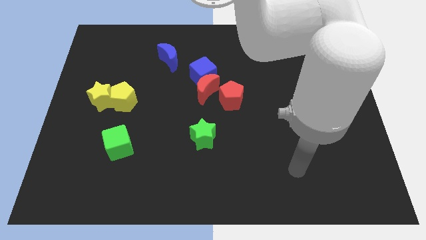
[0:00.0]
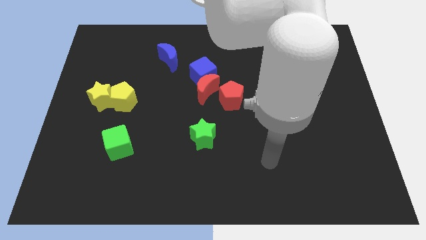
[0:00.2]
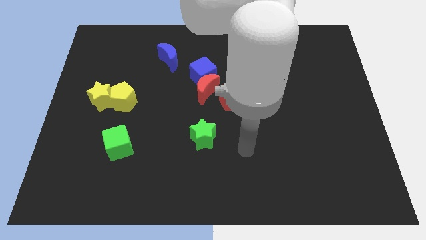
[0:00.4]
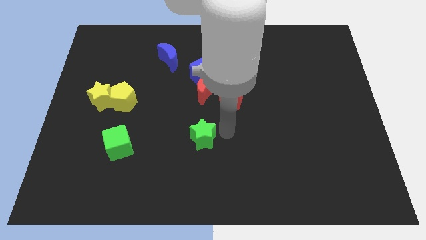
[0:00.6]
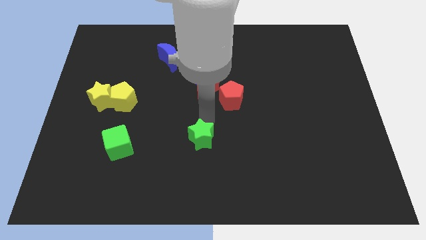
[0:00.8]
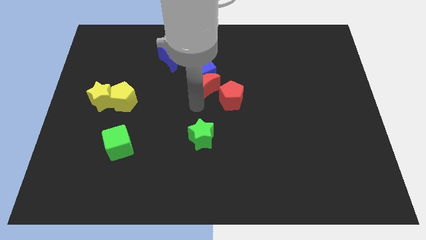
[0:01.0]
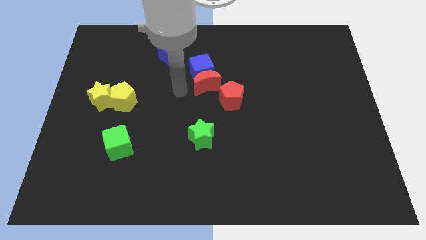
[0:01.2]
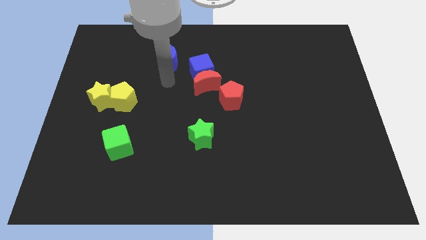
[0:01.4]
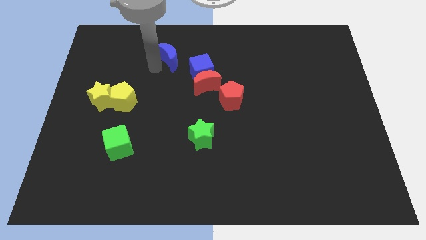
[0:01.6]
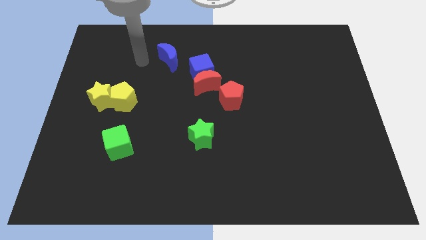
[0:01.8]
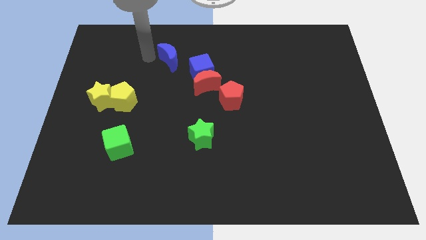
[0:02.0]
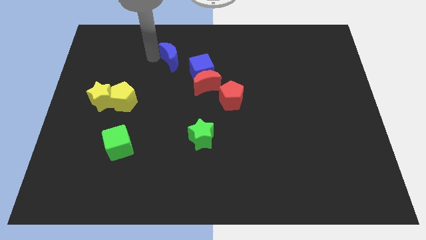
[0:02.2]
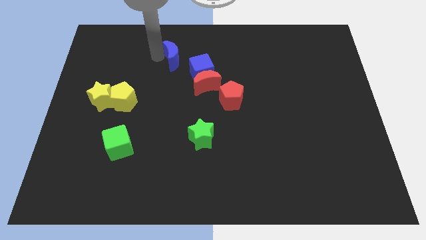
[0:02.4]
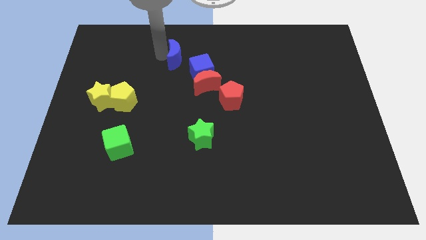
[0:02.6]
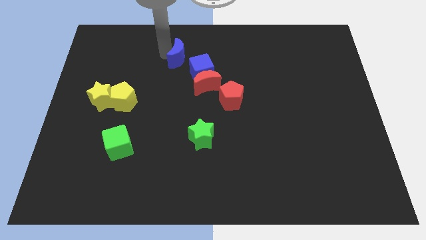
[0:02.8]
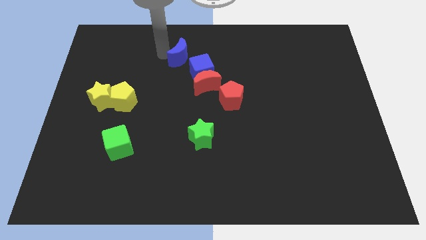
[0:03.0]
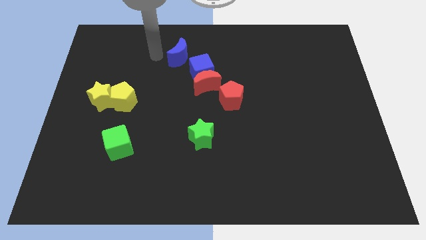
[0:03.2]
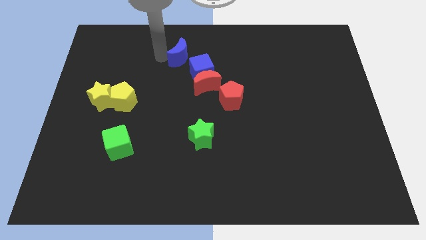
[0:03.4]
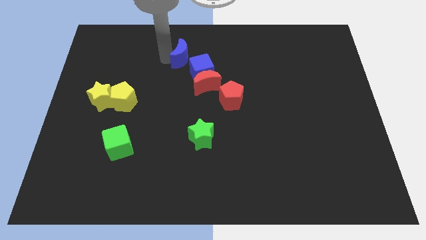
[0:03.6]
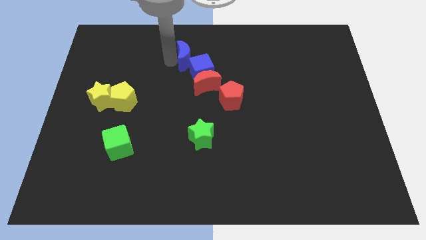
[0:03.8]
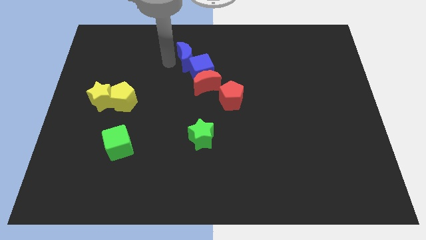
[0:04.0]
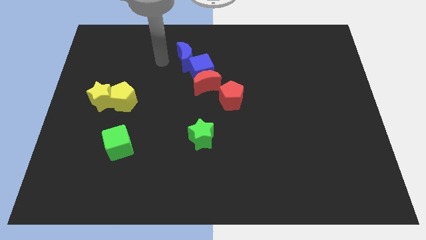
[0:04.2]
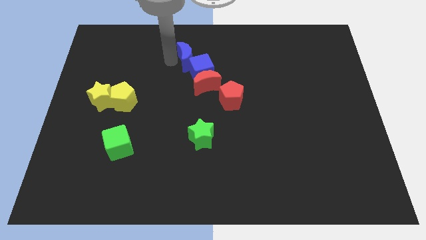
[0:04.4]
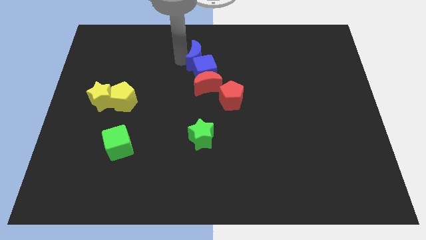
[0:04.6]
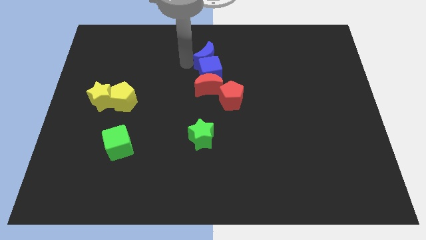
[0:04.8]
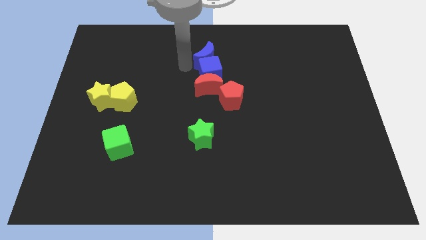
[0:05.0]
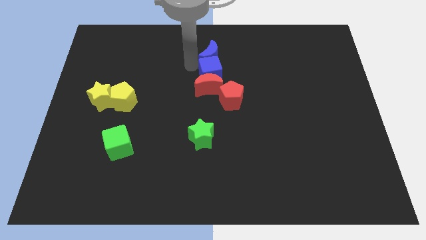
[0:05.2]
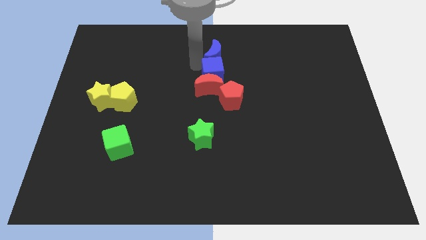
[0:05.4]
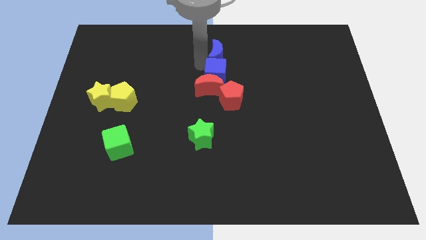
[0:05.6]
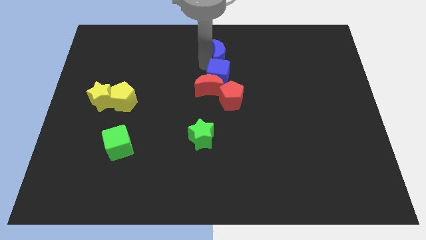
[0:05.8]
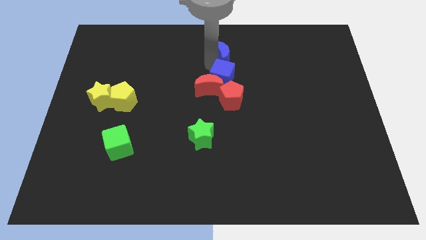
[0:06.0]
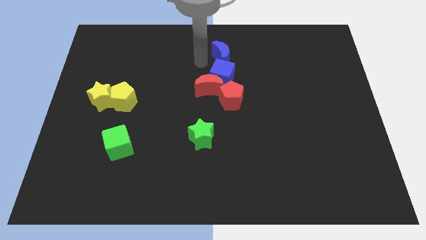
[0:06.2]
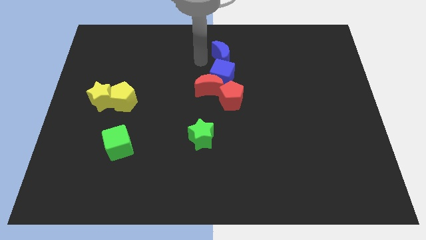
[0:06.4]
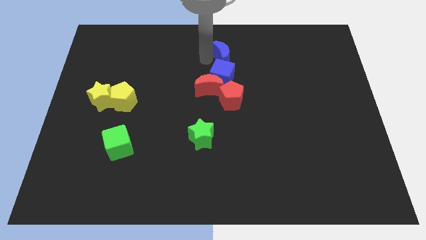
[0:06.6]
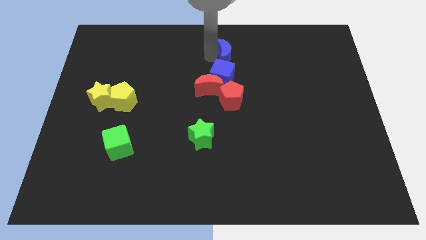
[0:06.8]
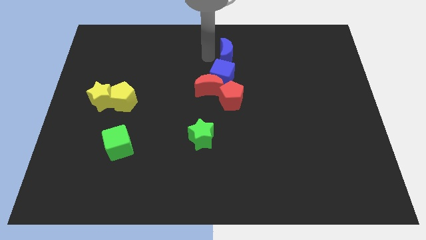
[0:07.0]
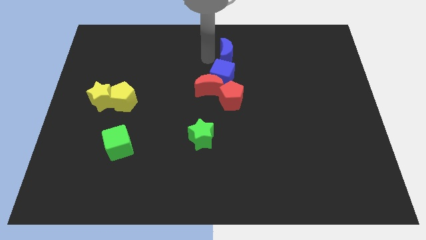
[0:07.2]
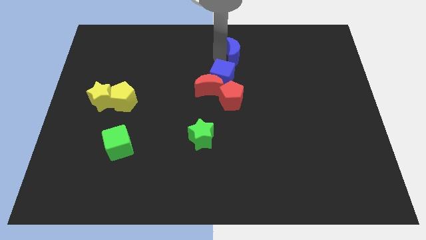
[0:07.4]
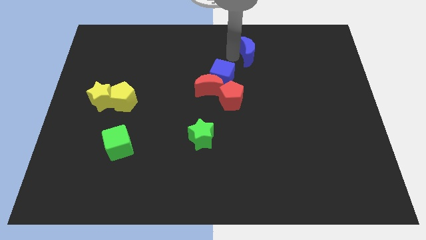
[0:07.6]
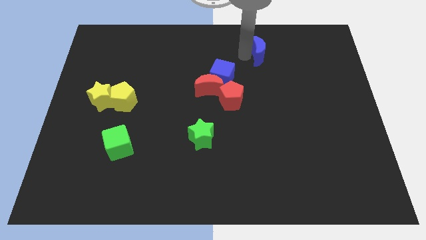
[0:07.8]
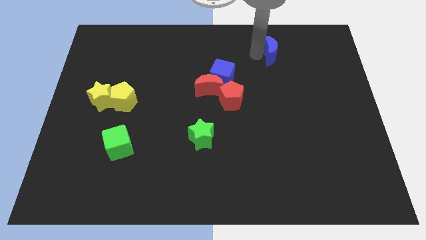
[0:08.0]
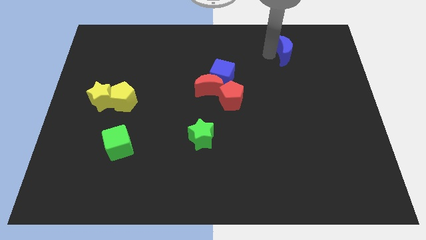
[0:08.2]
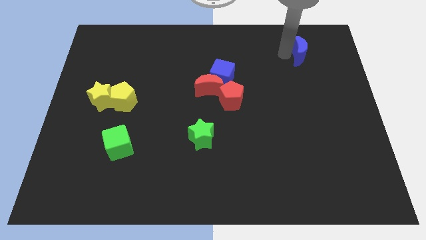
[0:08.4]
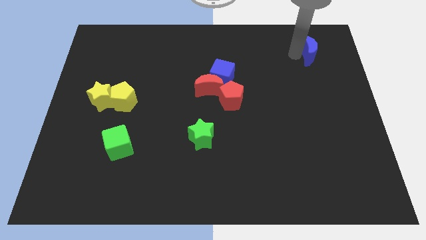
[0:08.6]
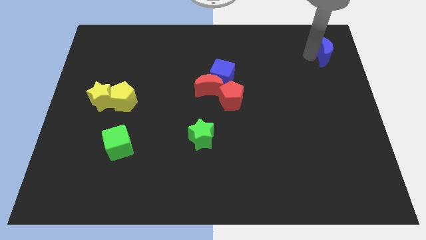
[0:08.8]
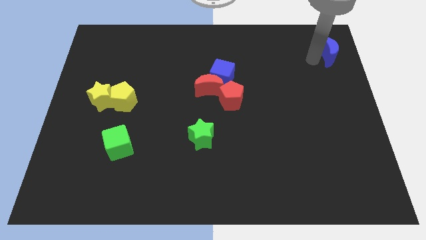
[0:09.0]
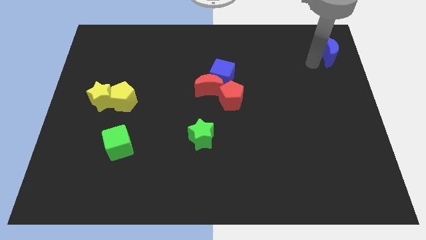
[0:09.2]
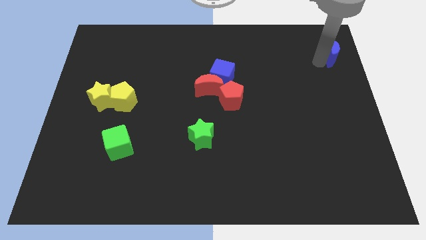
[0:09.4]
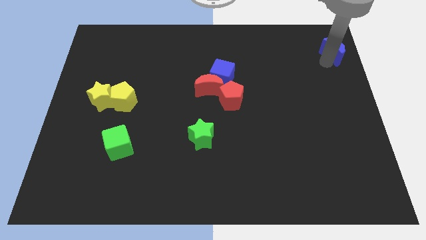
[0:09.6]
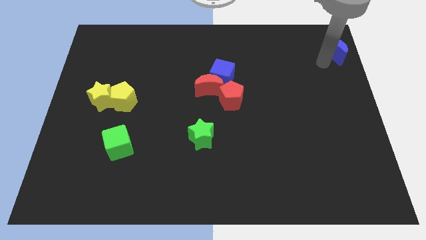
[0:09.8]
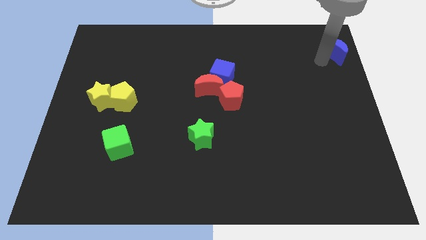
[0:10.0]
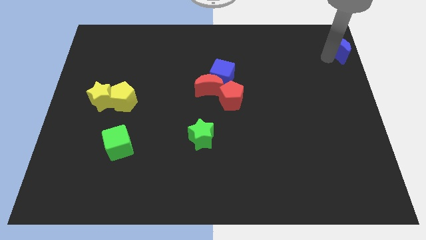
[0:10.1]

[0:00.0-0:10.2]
push the blue moon to the top right corner

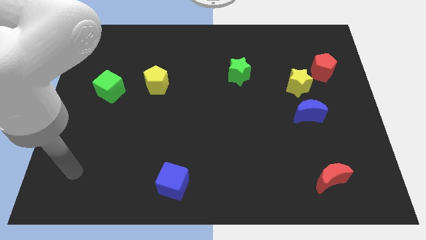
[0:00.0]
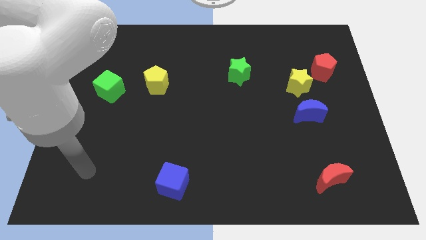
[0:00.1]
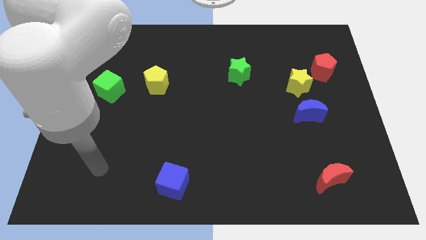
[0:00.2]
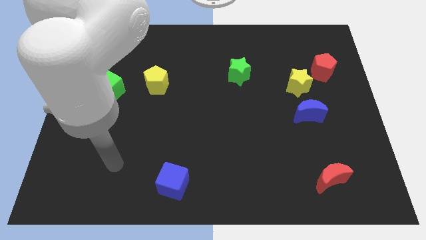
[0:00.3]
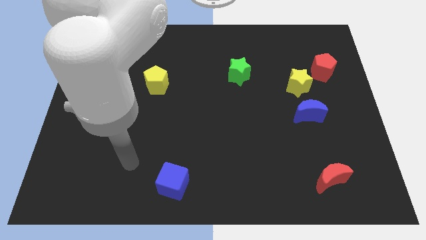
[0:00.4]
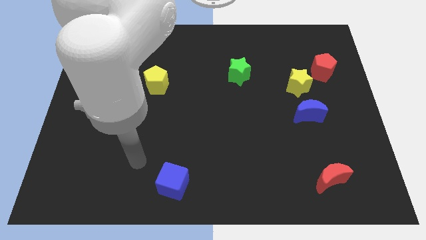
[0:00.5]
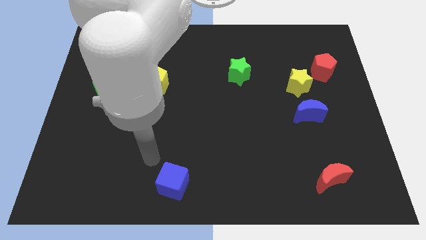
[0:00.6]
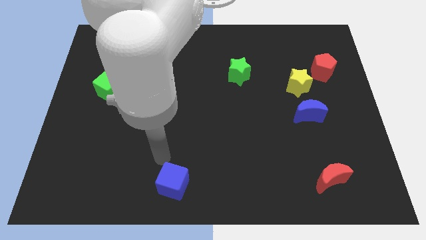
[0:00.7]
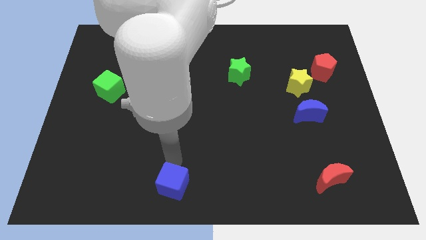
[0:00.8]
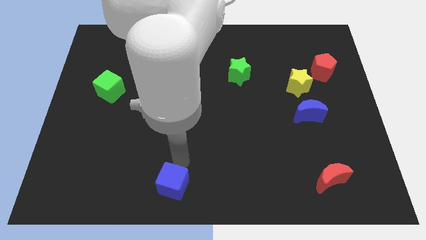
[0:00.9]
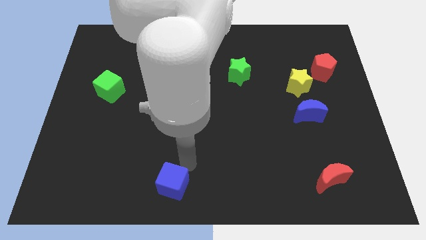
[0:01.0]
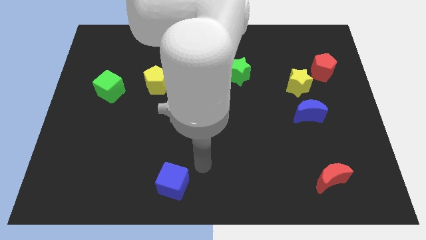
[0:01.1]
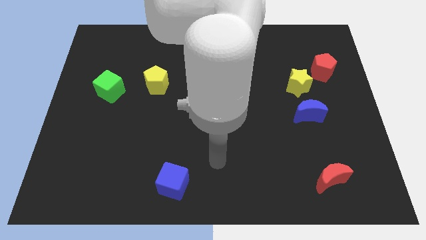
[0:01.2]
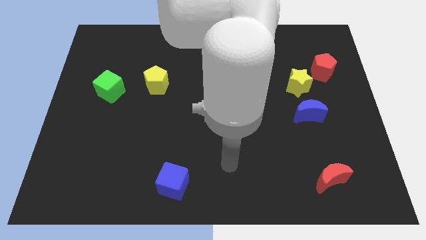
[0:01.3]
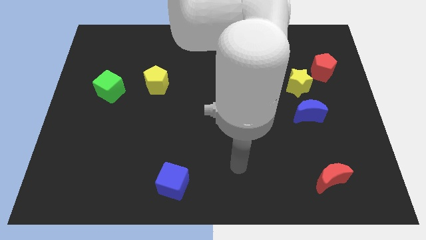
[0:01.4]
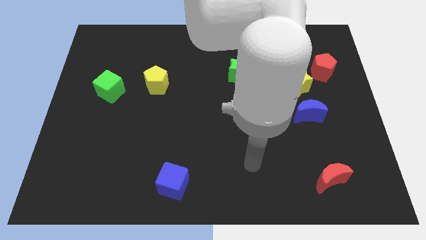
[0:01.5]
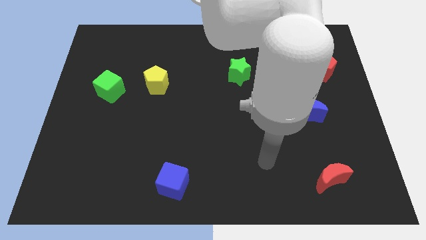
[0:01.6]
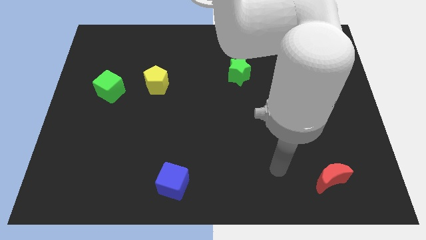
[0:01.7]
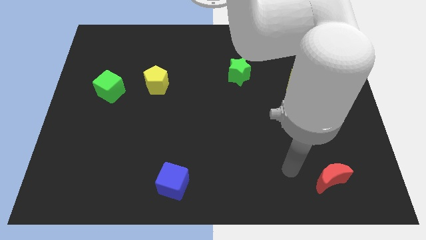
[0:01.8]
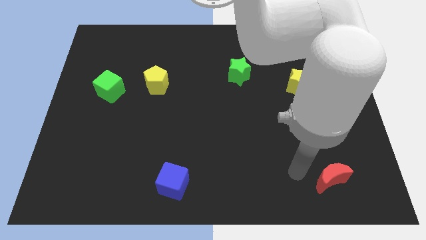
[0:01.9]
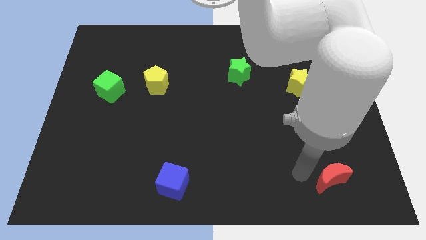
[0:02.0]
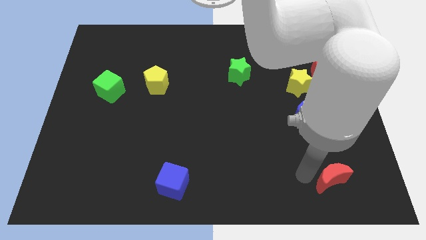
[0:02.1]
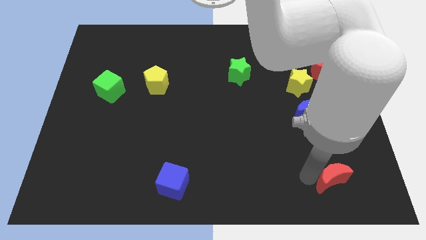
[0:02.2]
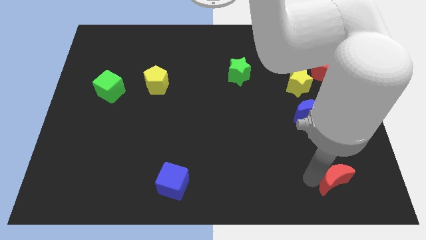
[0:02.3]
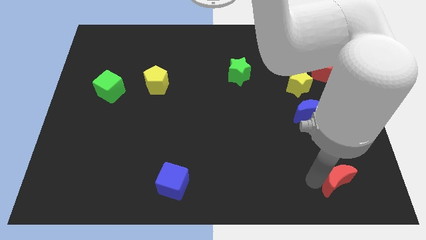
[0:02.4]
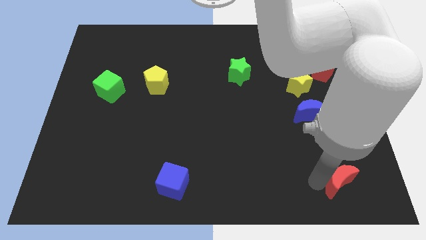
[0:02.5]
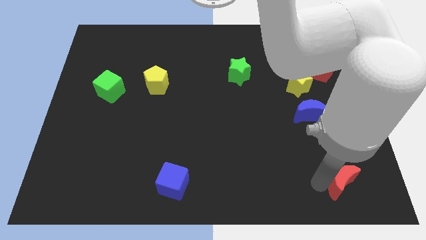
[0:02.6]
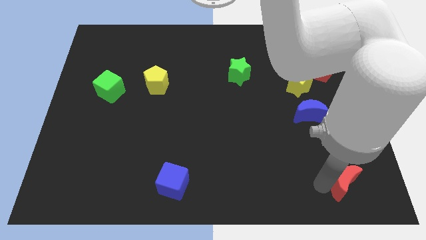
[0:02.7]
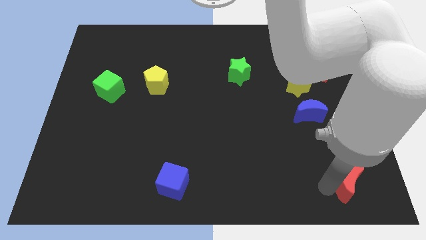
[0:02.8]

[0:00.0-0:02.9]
slide the red moon to the bottom right of the board
